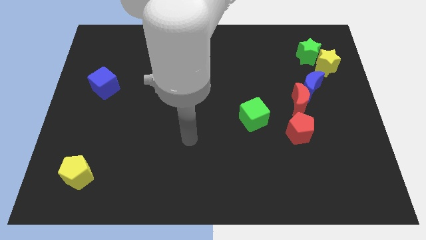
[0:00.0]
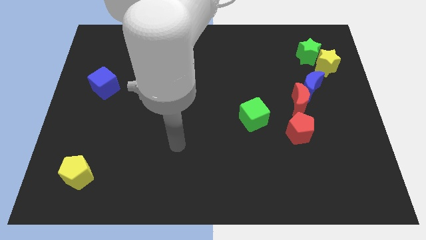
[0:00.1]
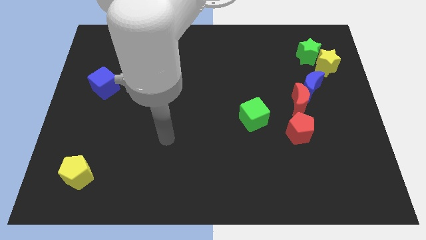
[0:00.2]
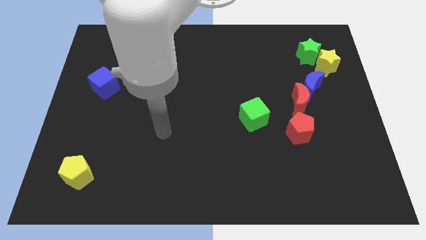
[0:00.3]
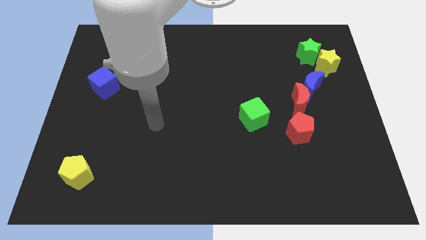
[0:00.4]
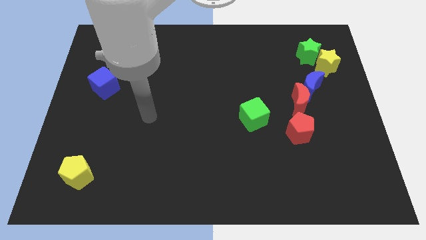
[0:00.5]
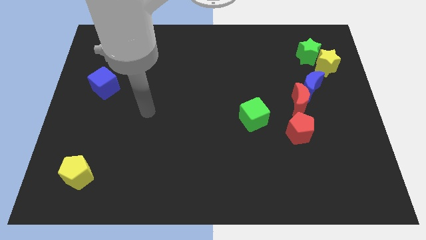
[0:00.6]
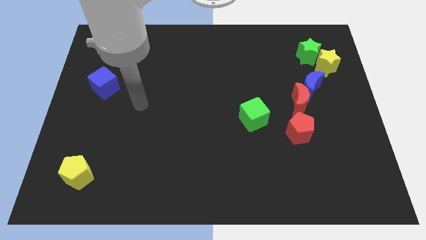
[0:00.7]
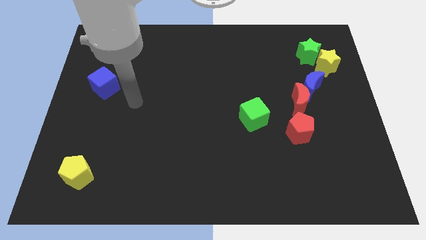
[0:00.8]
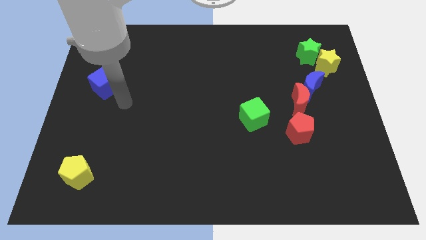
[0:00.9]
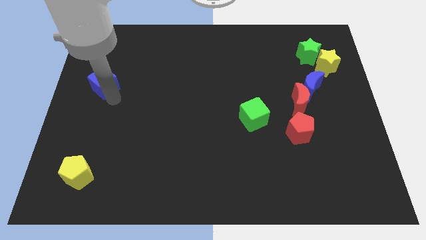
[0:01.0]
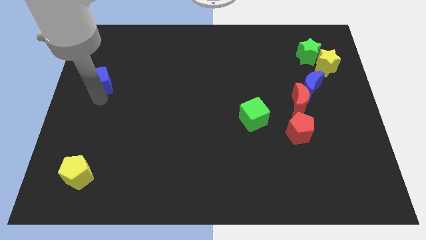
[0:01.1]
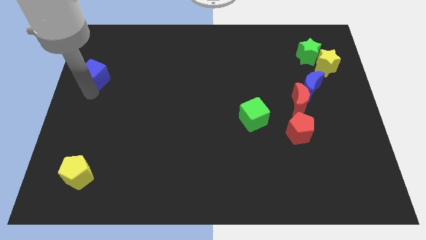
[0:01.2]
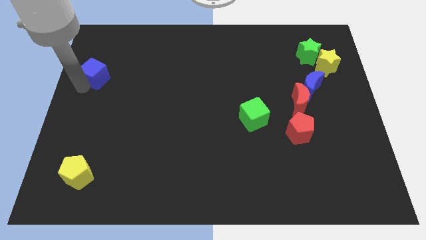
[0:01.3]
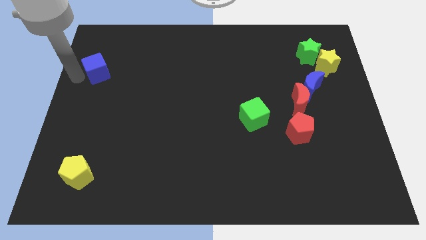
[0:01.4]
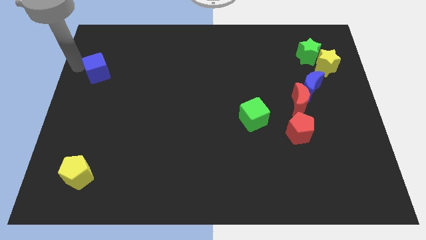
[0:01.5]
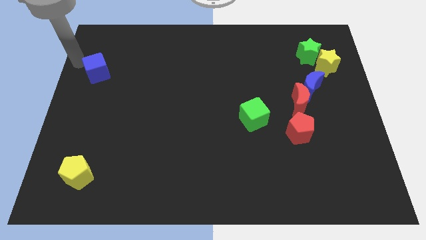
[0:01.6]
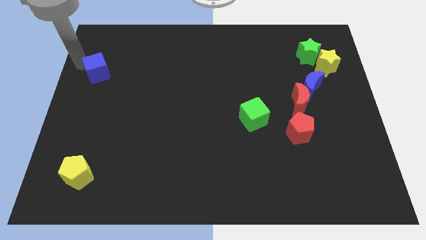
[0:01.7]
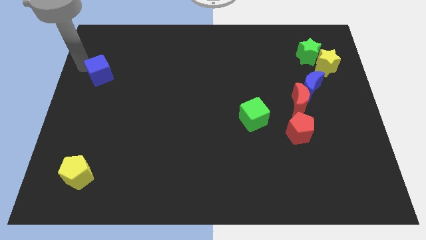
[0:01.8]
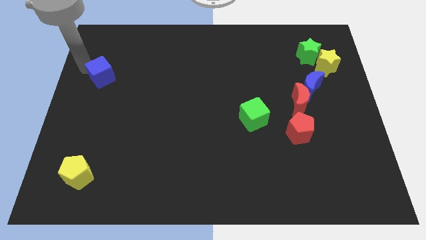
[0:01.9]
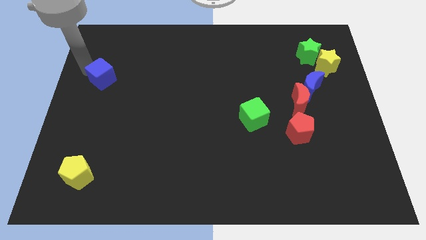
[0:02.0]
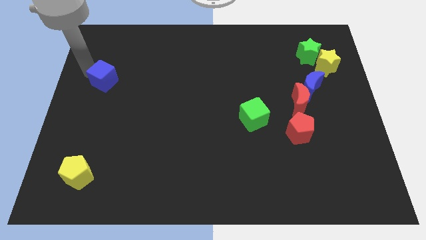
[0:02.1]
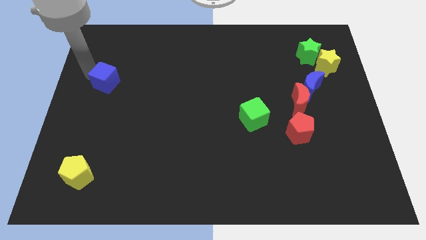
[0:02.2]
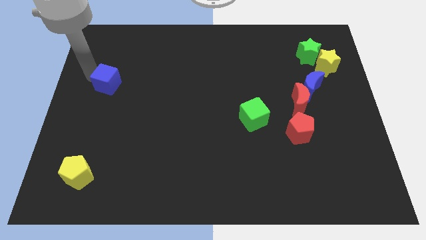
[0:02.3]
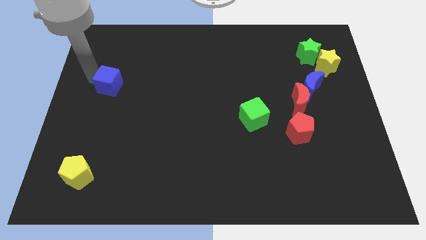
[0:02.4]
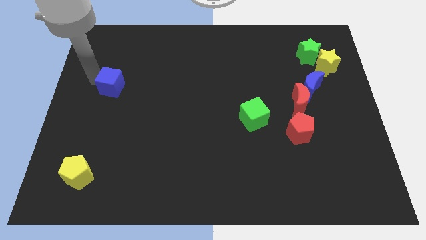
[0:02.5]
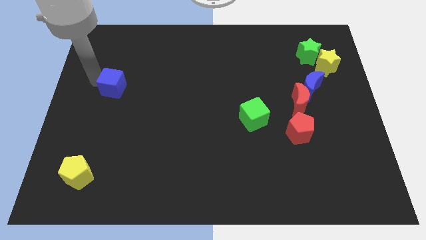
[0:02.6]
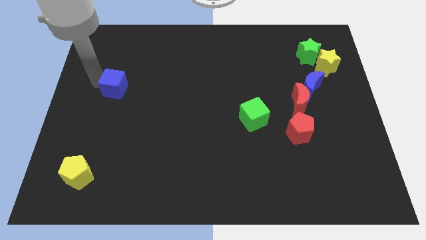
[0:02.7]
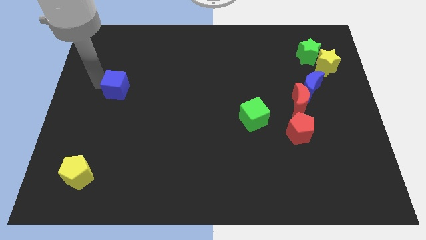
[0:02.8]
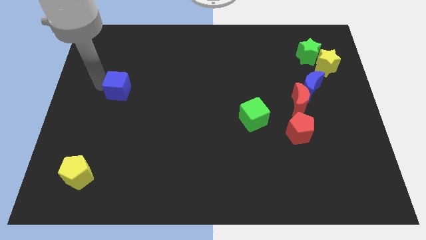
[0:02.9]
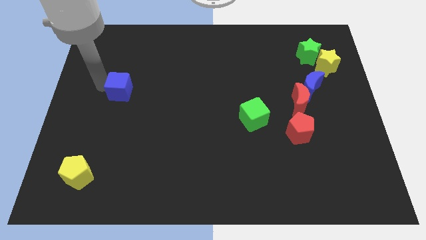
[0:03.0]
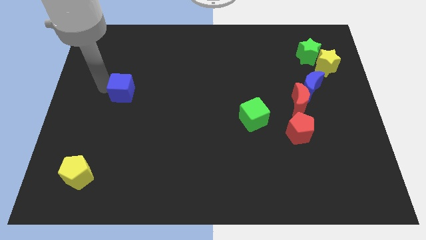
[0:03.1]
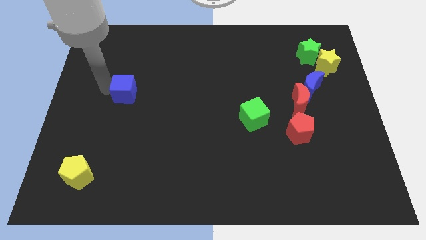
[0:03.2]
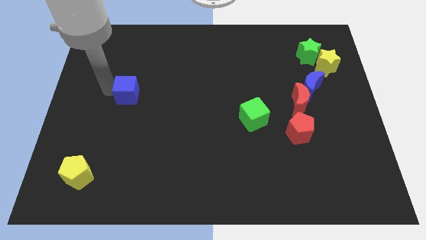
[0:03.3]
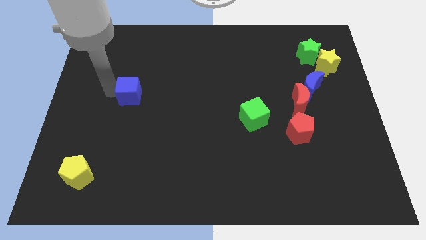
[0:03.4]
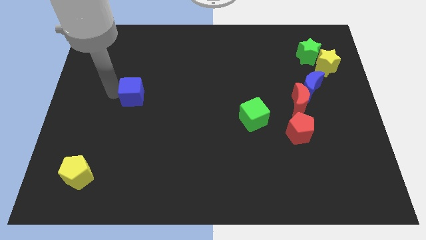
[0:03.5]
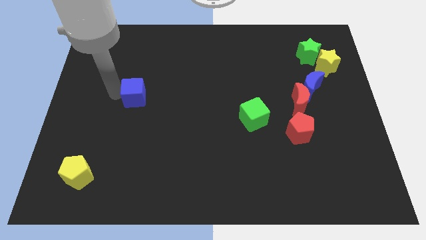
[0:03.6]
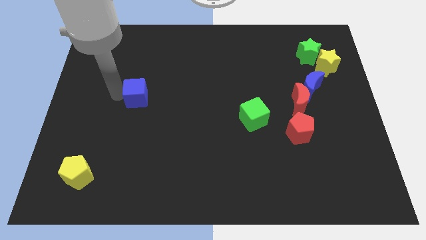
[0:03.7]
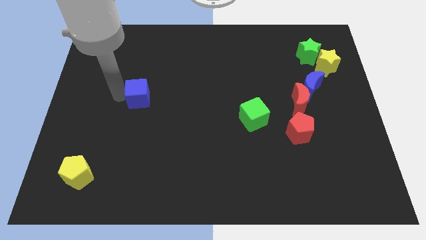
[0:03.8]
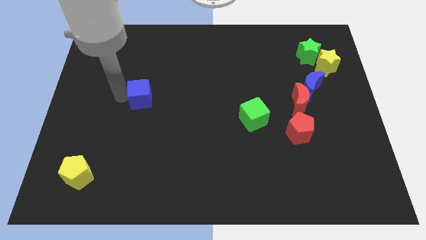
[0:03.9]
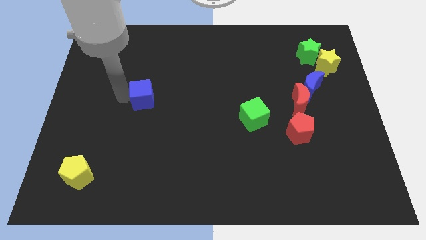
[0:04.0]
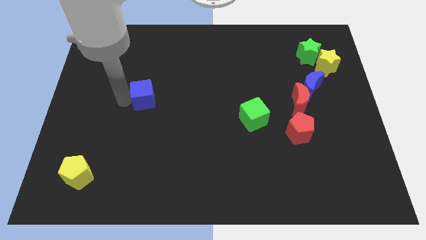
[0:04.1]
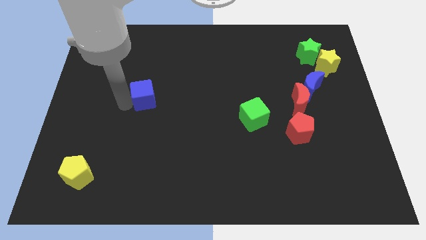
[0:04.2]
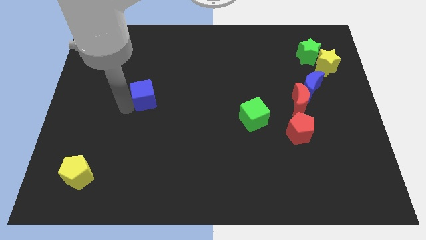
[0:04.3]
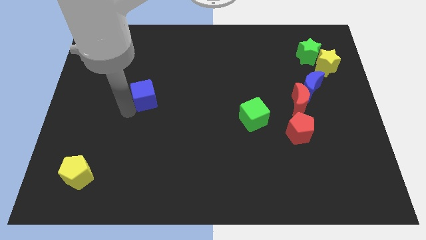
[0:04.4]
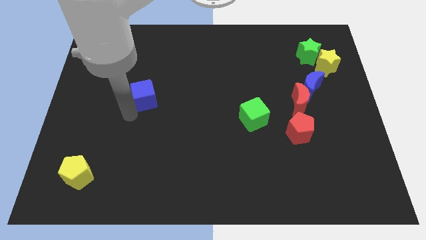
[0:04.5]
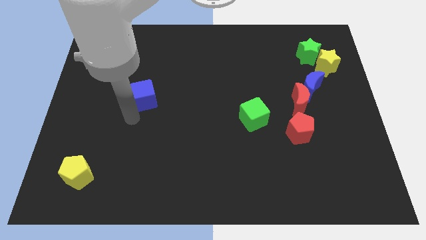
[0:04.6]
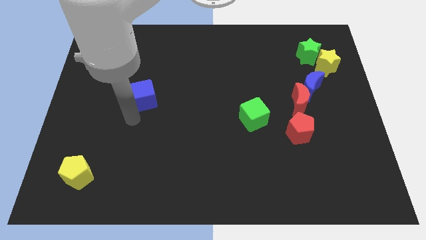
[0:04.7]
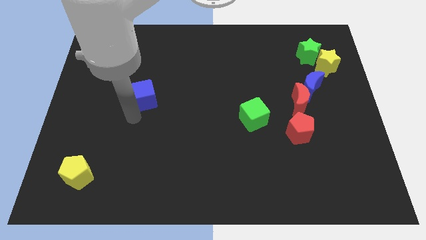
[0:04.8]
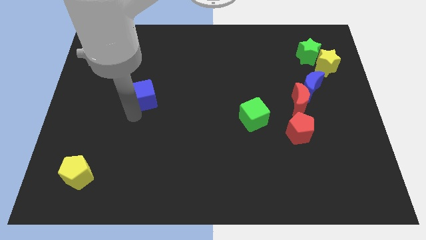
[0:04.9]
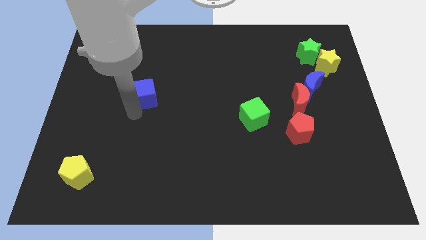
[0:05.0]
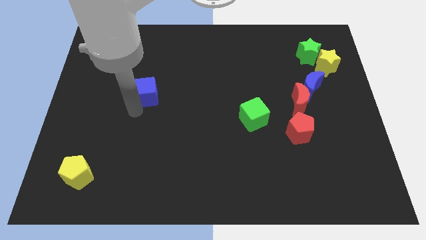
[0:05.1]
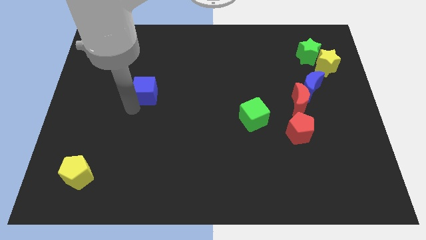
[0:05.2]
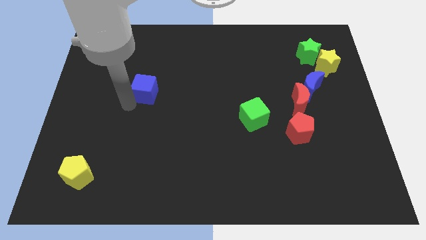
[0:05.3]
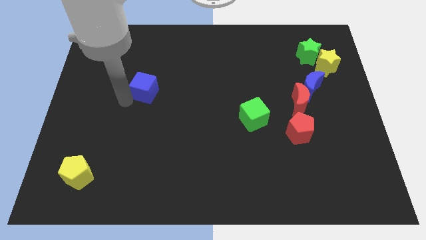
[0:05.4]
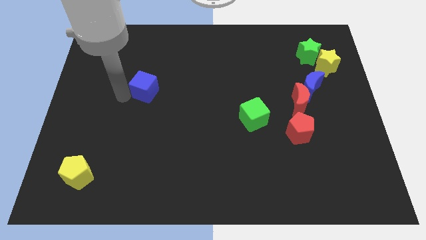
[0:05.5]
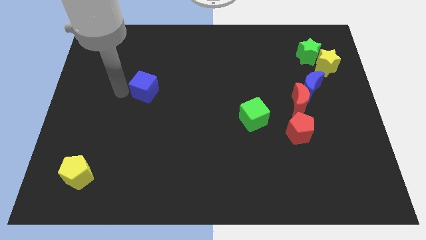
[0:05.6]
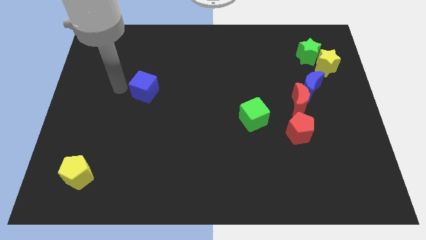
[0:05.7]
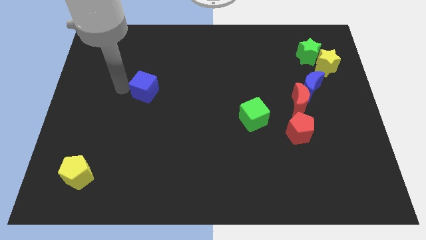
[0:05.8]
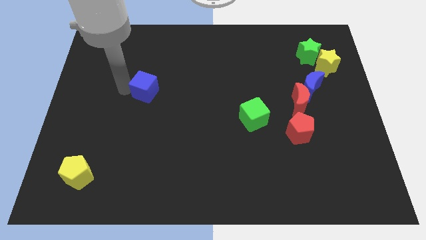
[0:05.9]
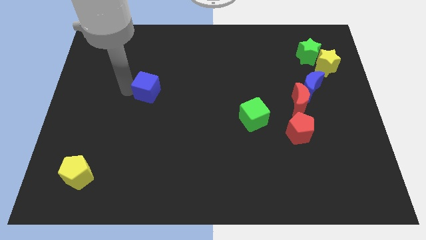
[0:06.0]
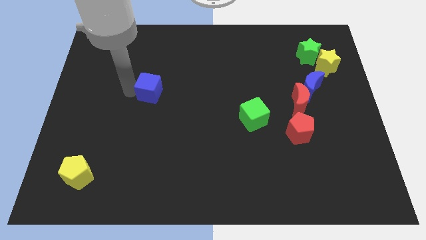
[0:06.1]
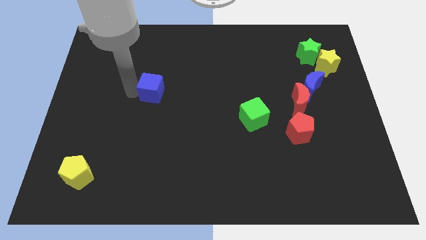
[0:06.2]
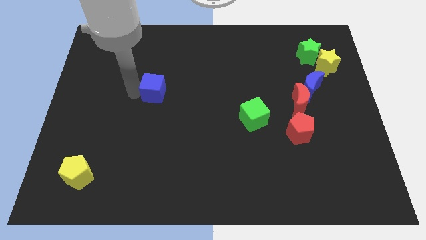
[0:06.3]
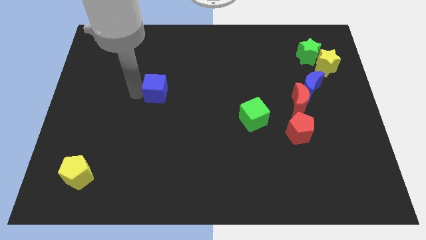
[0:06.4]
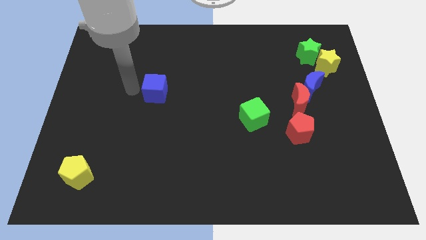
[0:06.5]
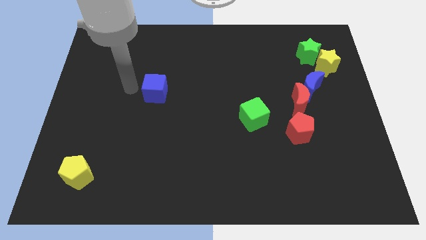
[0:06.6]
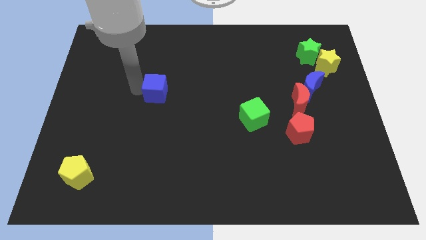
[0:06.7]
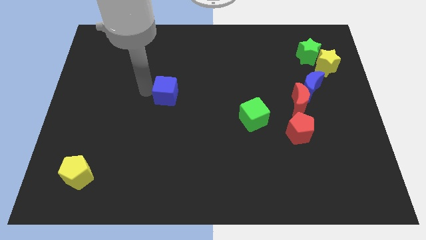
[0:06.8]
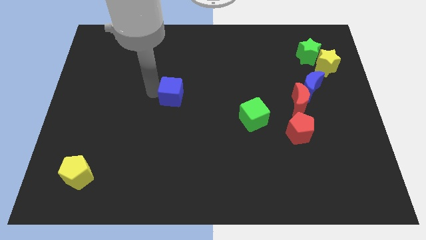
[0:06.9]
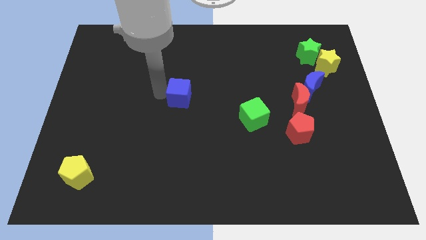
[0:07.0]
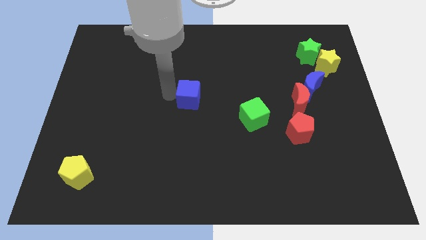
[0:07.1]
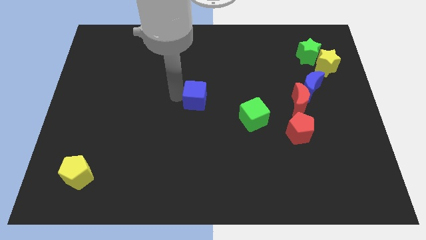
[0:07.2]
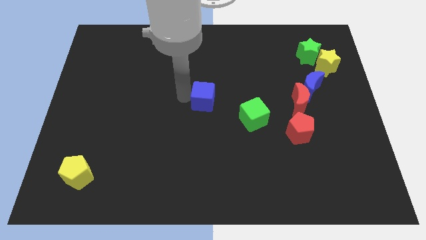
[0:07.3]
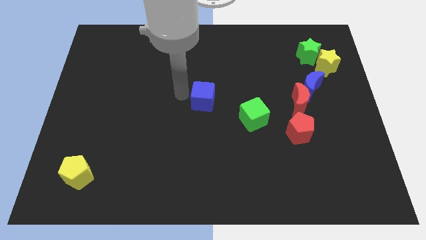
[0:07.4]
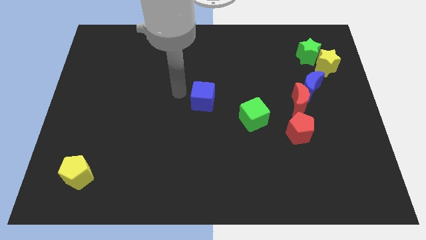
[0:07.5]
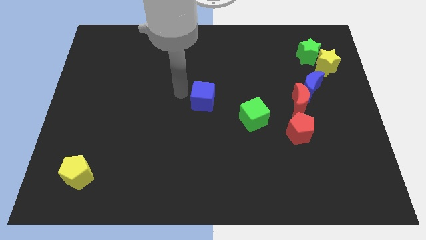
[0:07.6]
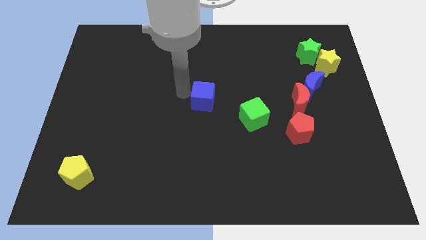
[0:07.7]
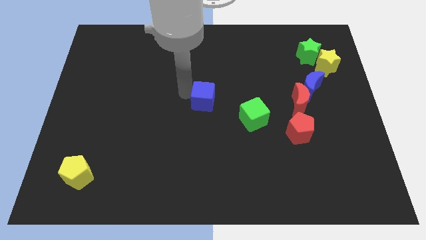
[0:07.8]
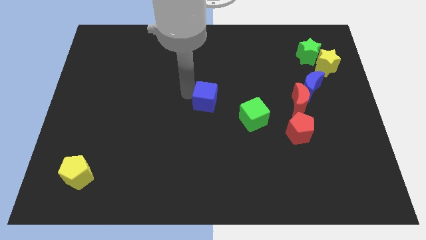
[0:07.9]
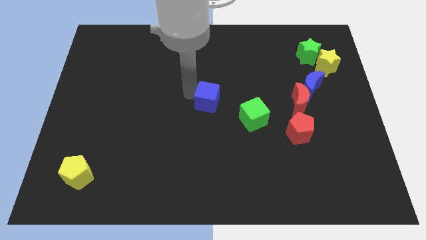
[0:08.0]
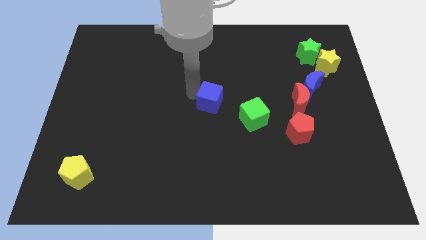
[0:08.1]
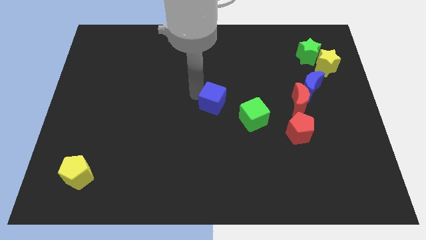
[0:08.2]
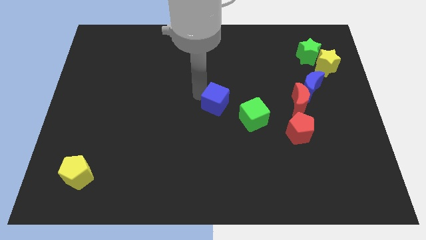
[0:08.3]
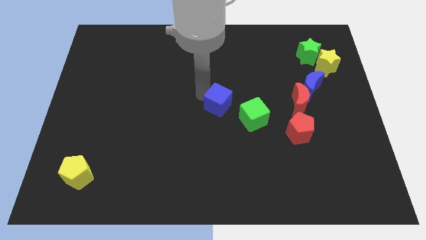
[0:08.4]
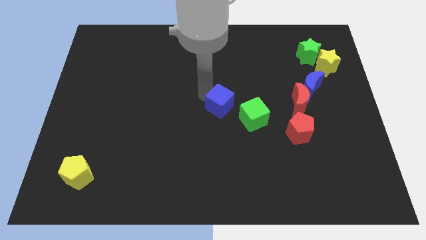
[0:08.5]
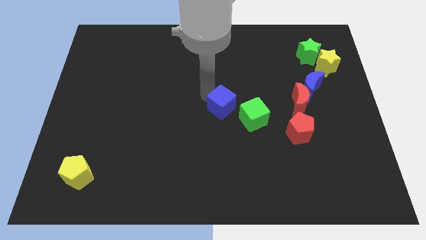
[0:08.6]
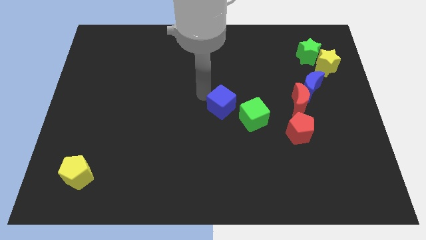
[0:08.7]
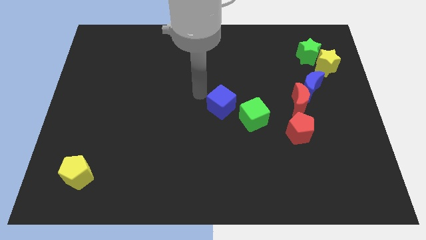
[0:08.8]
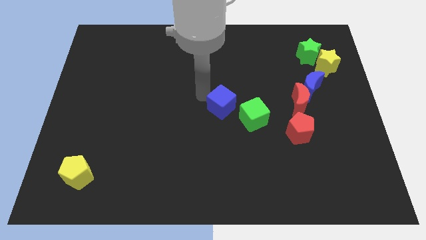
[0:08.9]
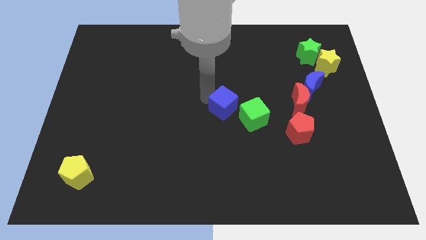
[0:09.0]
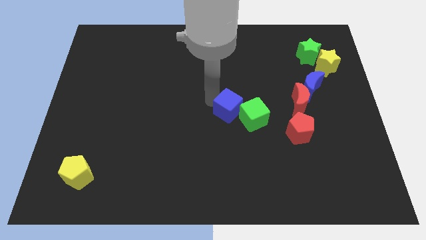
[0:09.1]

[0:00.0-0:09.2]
put the blue cube close to the green cube
